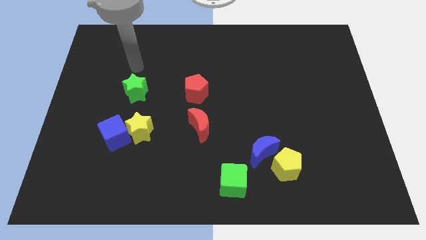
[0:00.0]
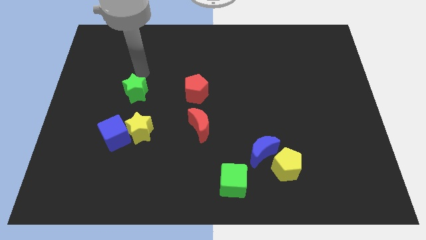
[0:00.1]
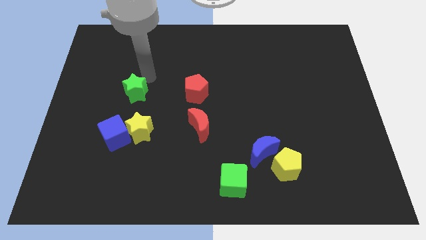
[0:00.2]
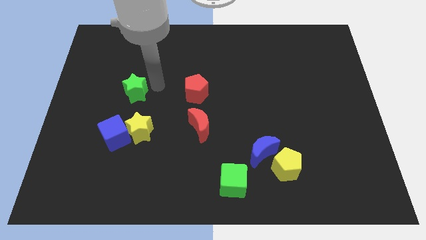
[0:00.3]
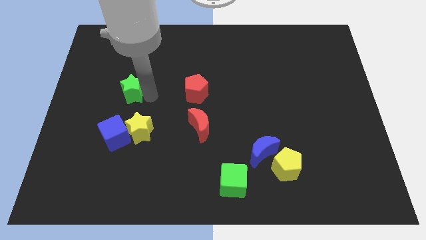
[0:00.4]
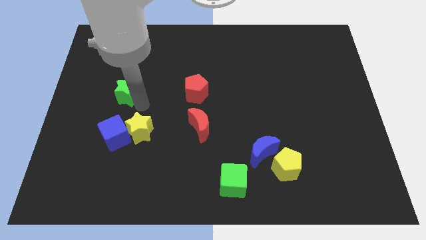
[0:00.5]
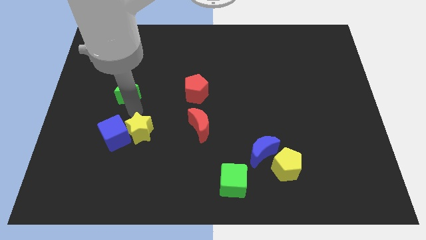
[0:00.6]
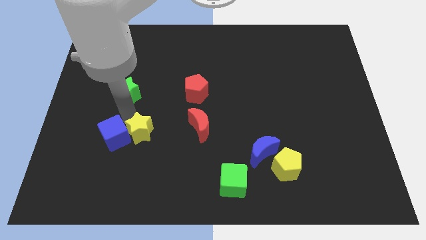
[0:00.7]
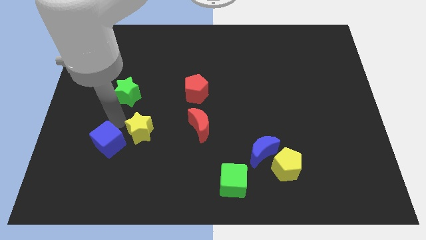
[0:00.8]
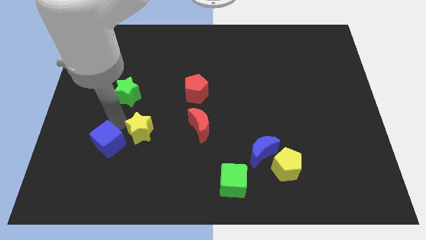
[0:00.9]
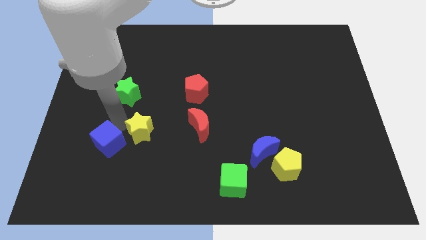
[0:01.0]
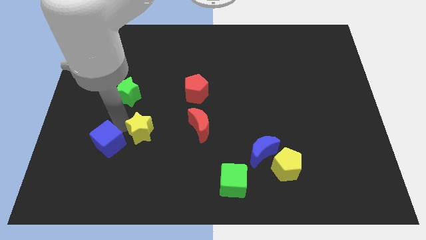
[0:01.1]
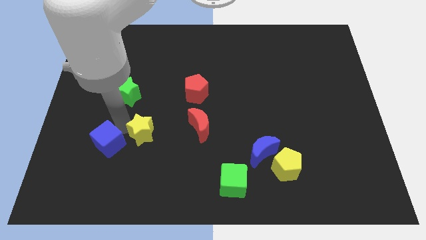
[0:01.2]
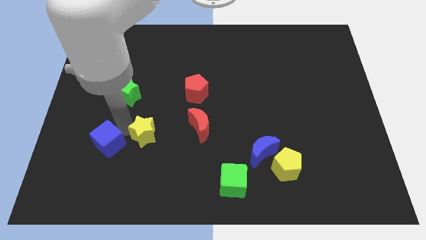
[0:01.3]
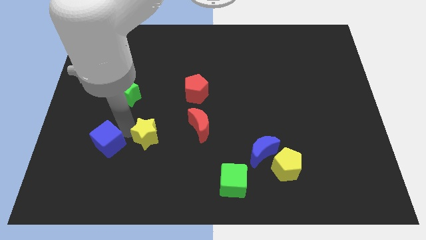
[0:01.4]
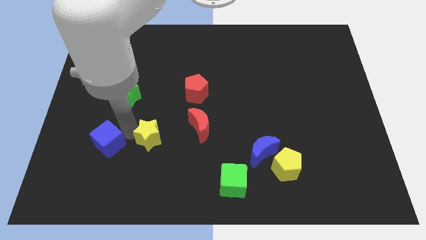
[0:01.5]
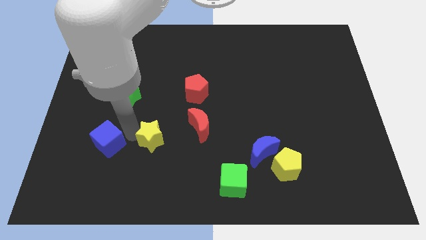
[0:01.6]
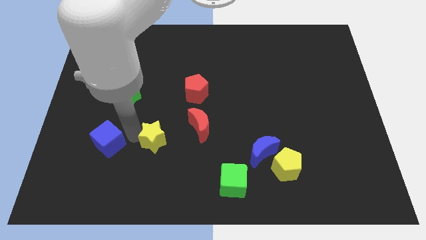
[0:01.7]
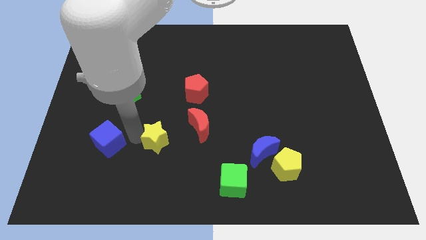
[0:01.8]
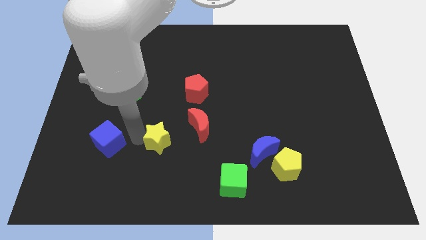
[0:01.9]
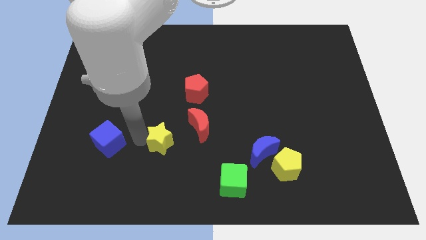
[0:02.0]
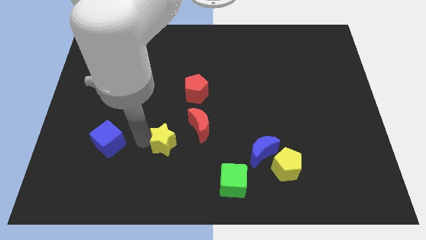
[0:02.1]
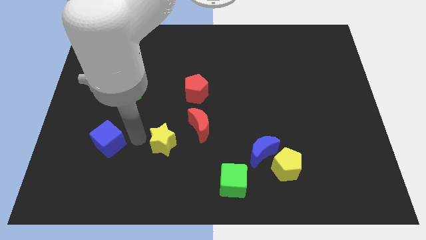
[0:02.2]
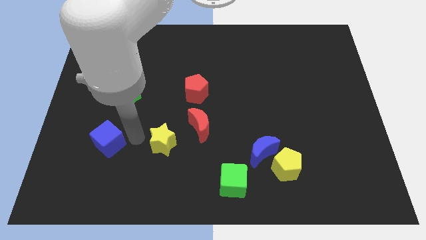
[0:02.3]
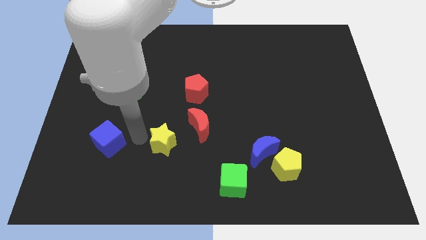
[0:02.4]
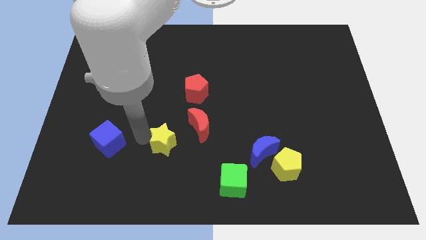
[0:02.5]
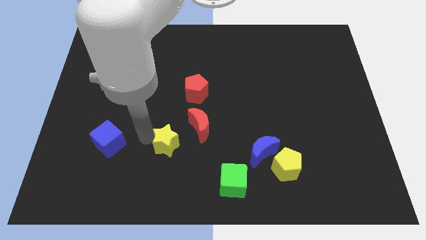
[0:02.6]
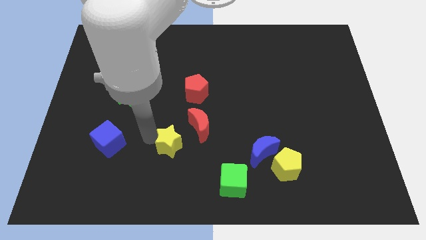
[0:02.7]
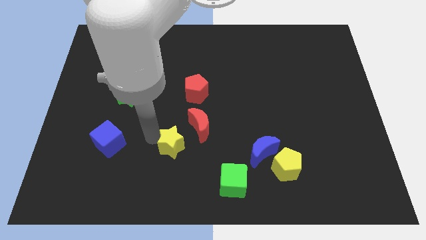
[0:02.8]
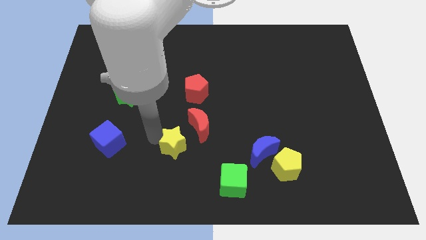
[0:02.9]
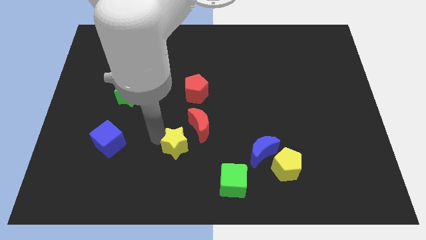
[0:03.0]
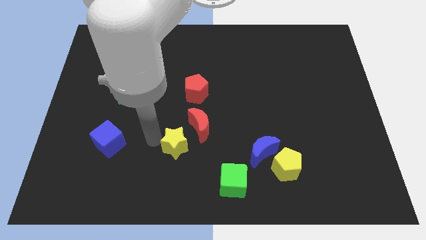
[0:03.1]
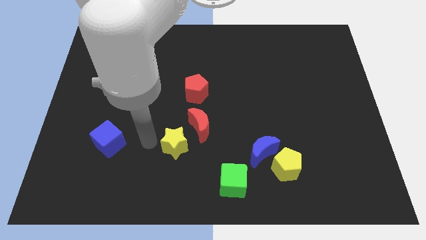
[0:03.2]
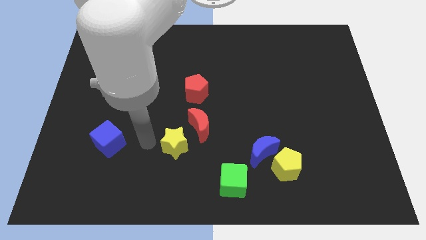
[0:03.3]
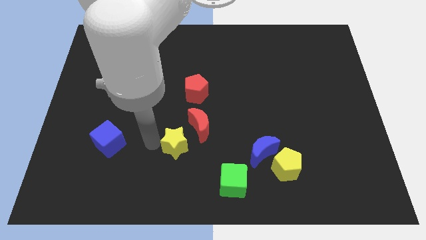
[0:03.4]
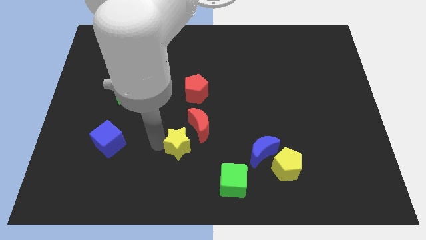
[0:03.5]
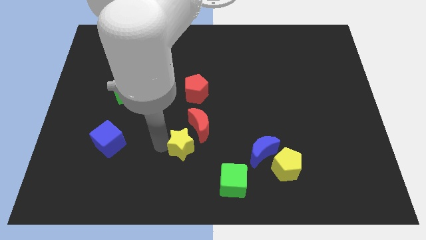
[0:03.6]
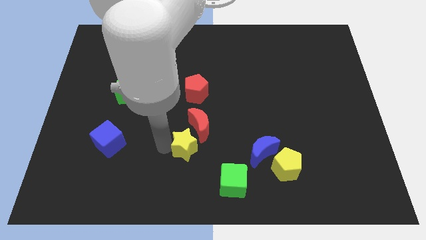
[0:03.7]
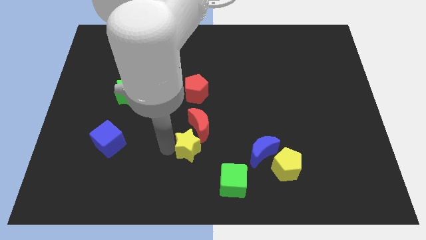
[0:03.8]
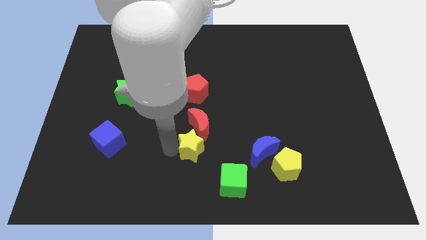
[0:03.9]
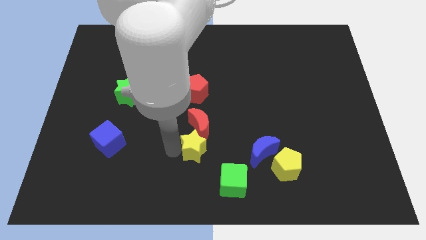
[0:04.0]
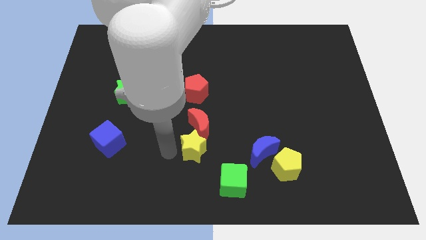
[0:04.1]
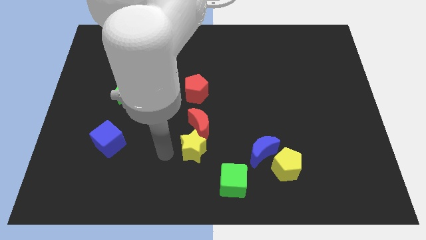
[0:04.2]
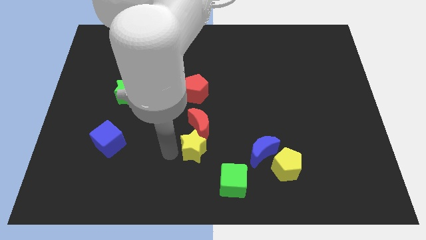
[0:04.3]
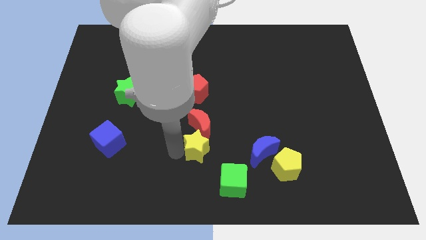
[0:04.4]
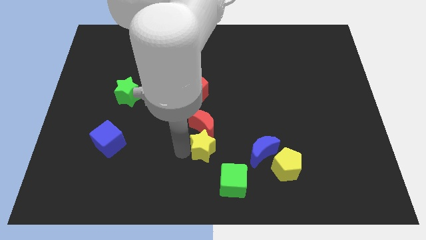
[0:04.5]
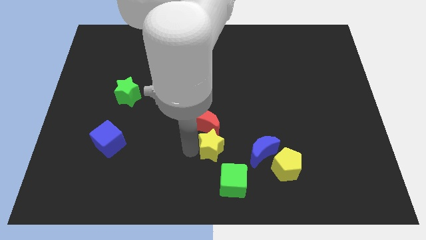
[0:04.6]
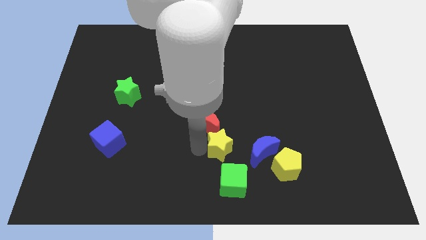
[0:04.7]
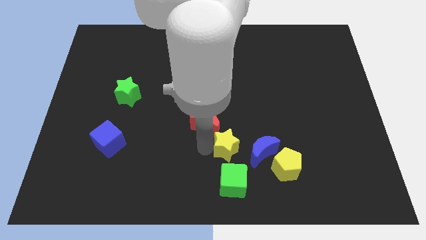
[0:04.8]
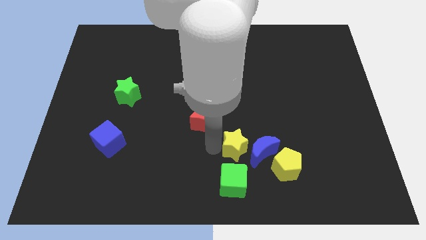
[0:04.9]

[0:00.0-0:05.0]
slide the yellow star towards the blue moon
